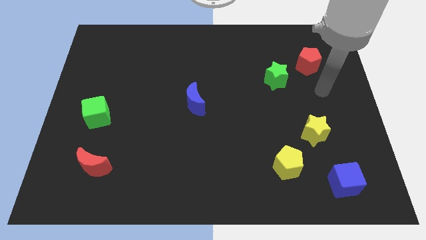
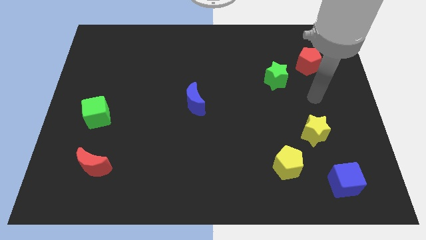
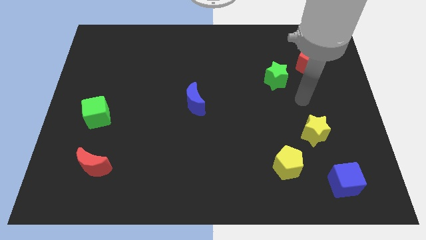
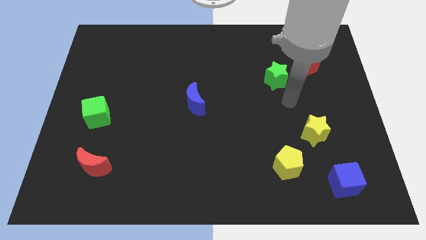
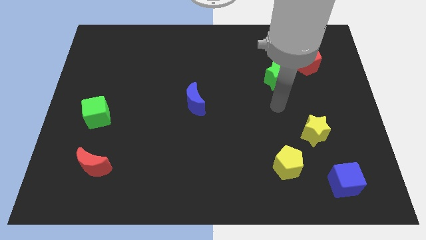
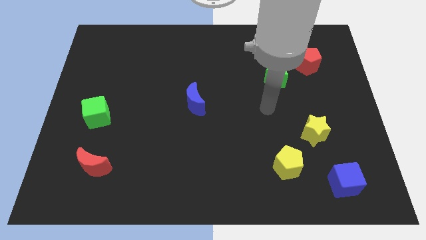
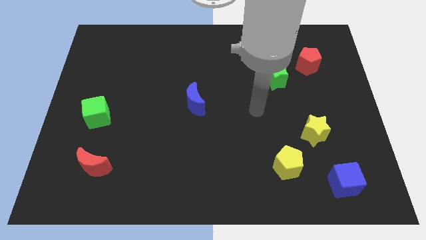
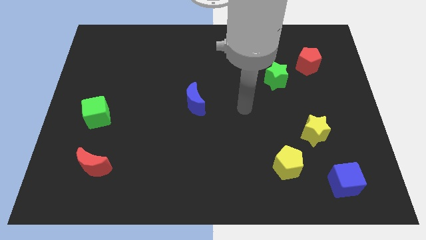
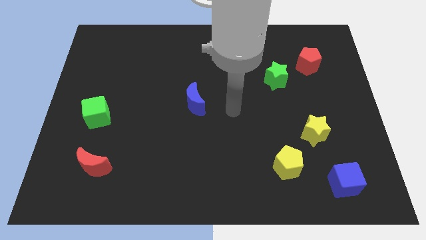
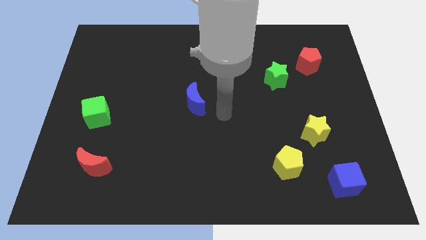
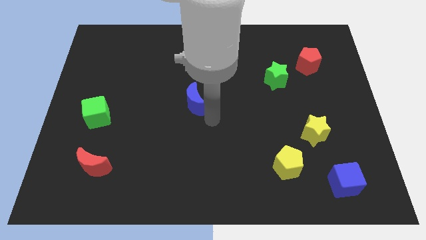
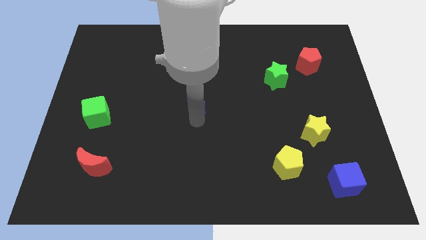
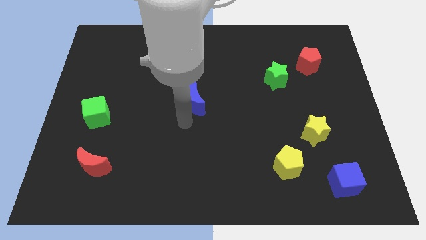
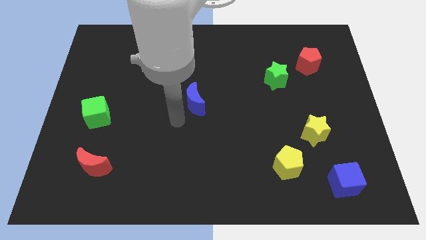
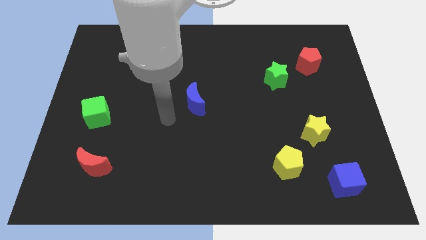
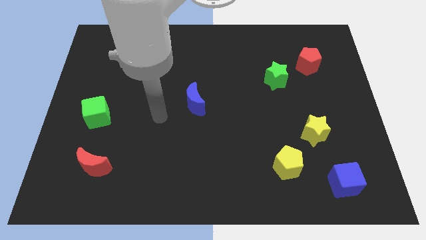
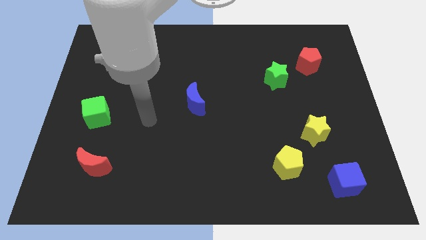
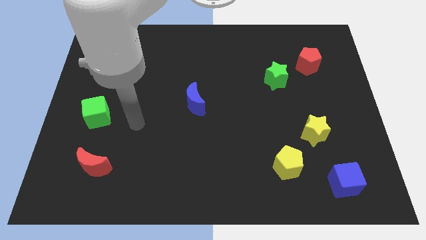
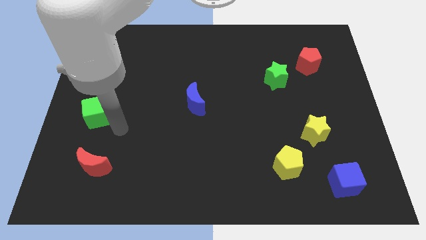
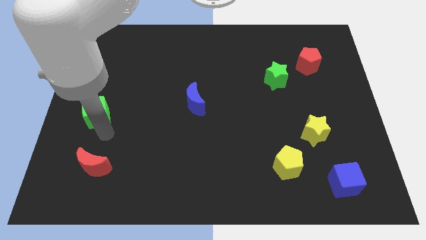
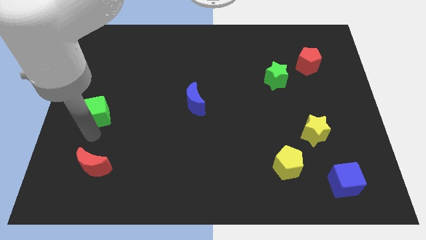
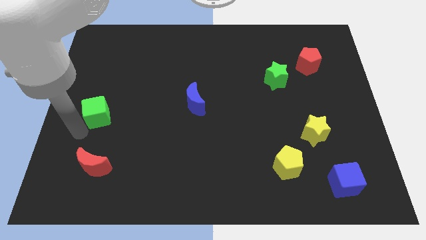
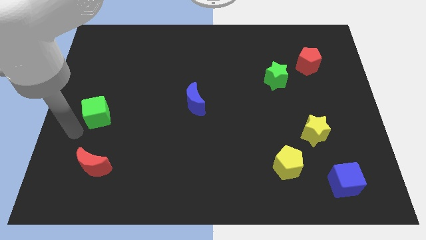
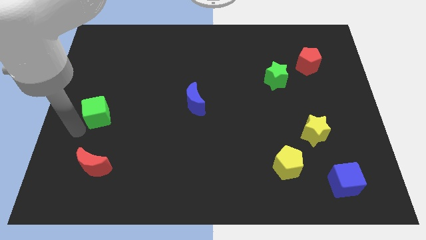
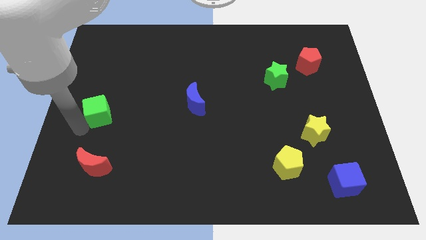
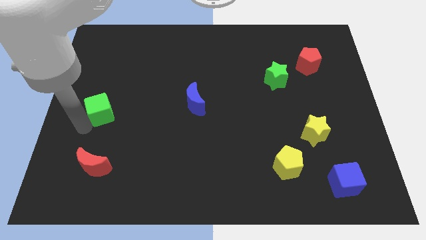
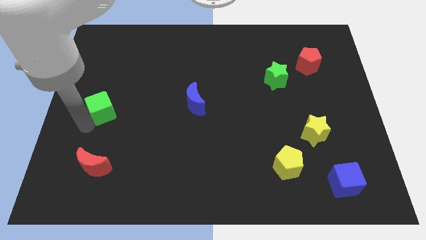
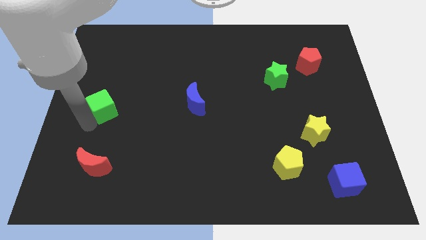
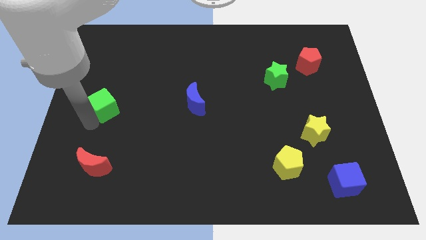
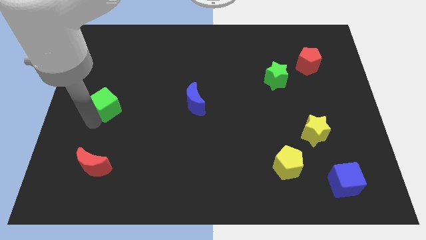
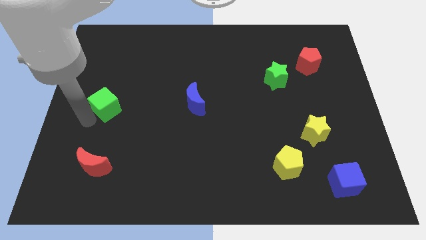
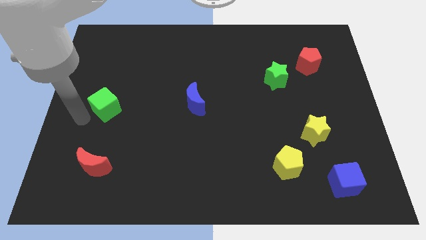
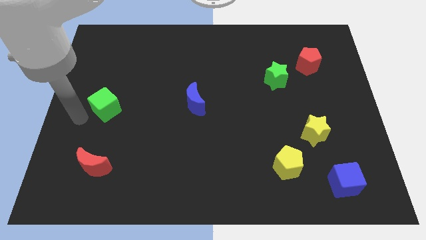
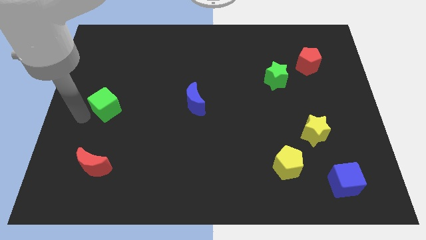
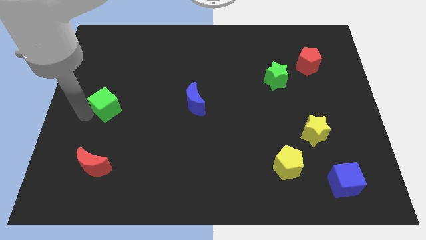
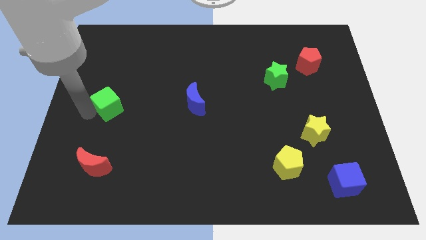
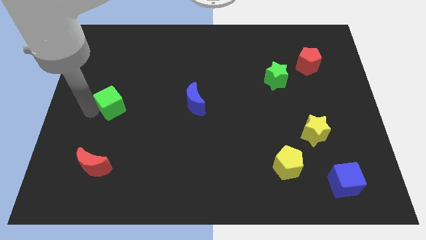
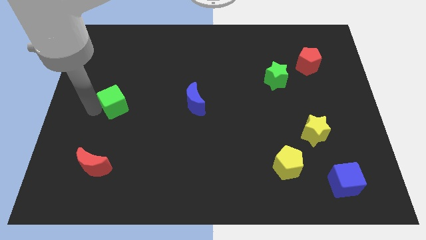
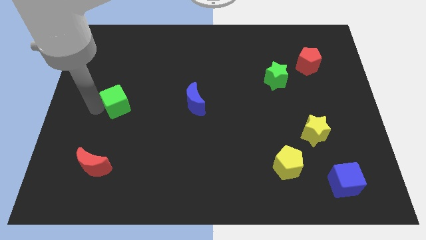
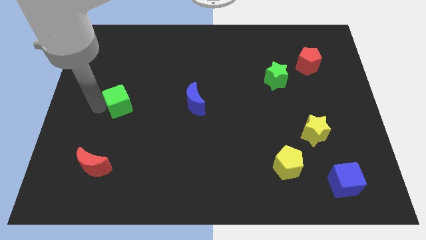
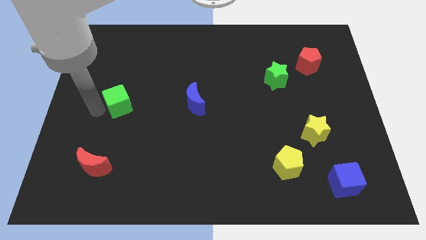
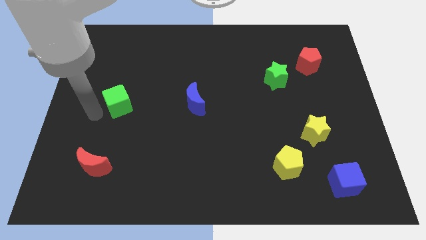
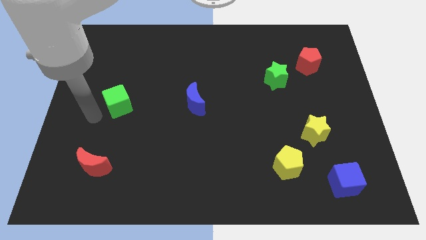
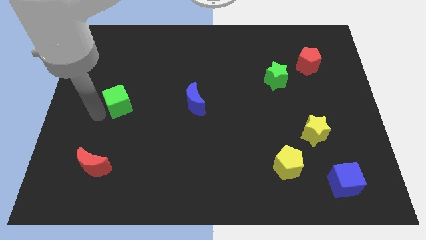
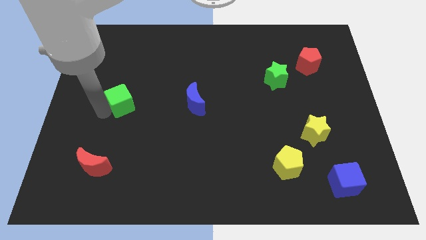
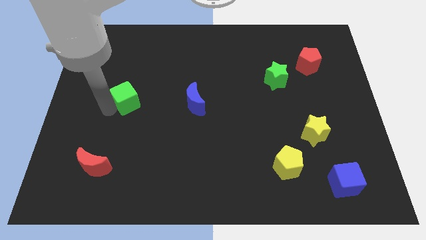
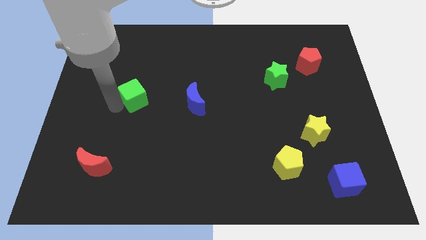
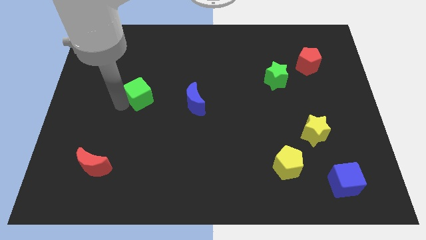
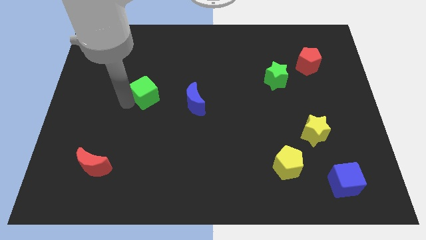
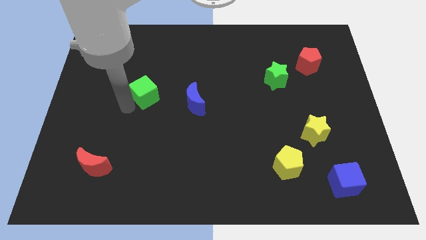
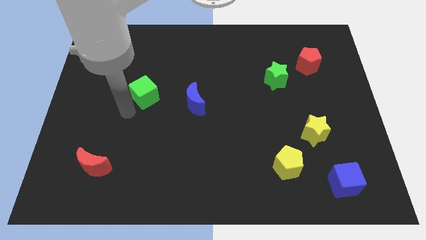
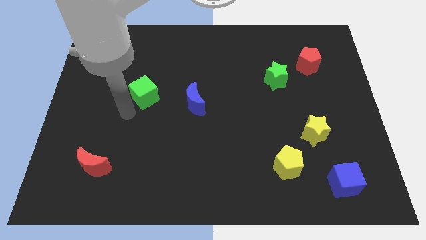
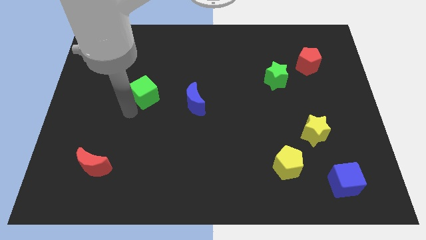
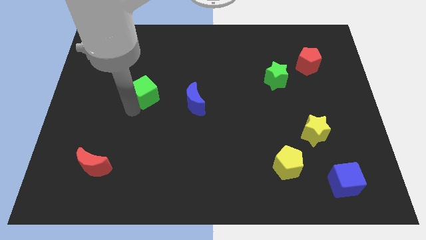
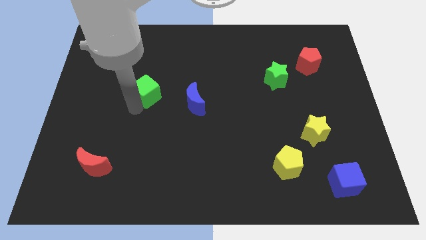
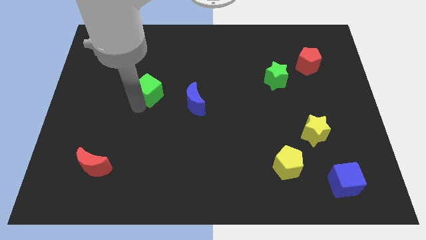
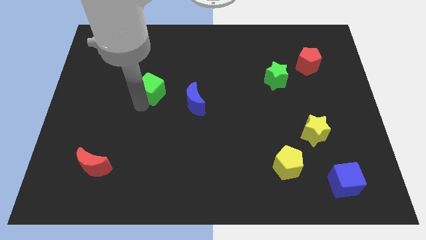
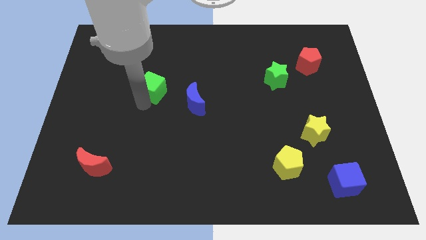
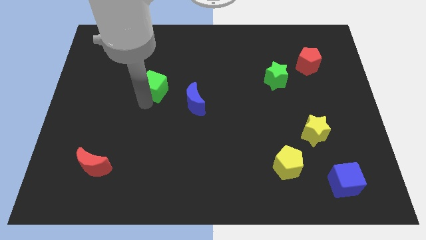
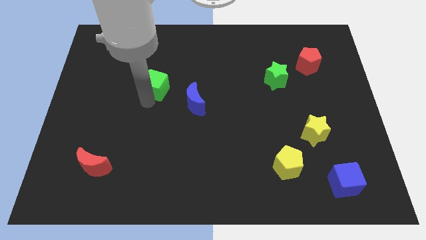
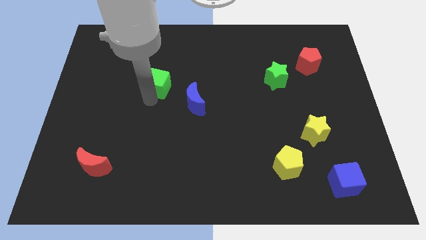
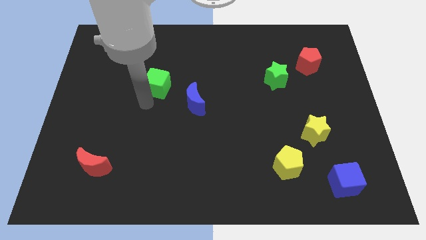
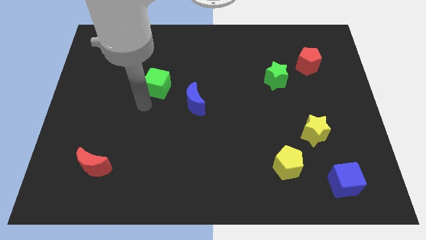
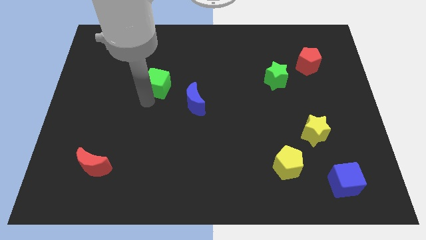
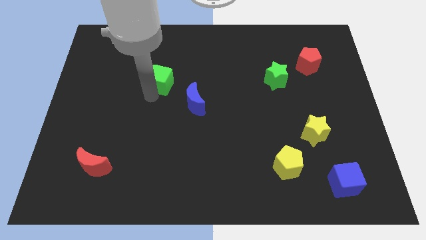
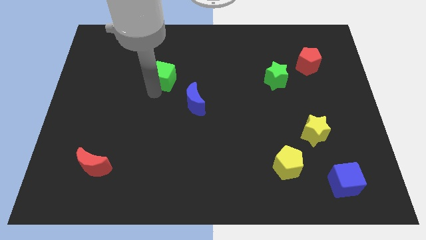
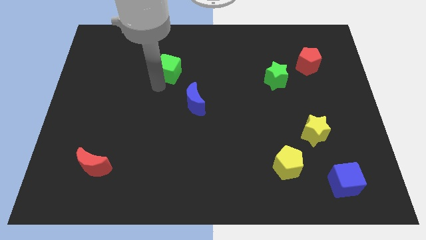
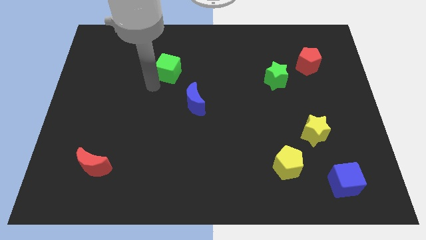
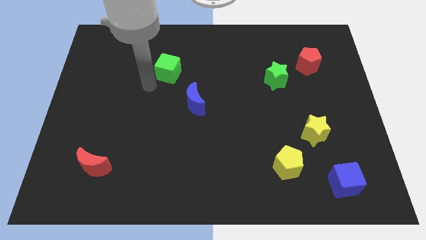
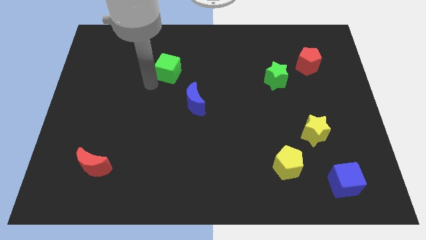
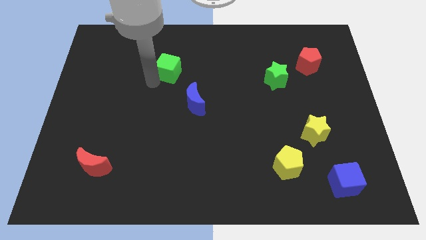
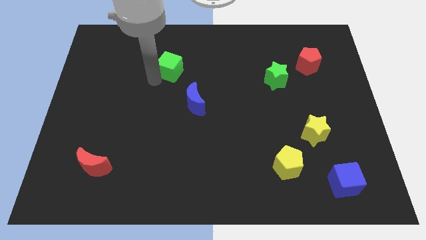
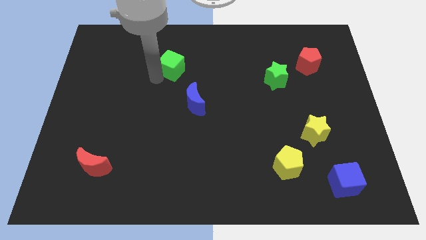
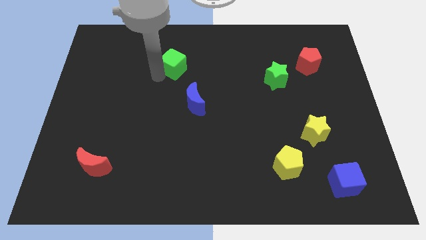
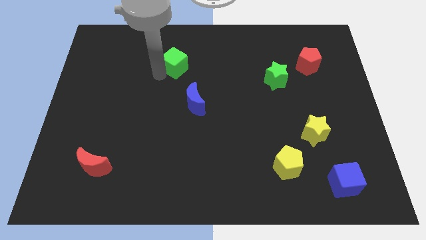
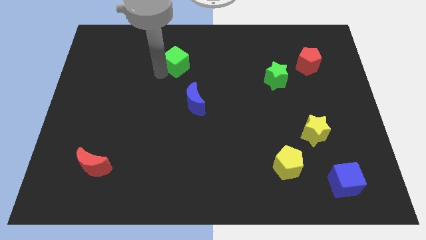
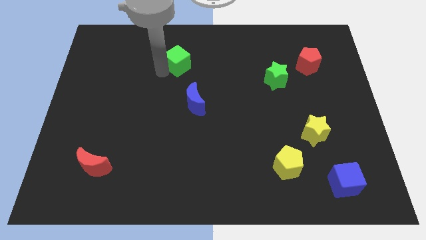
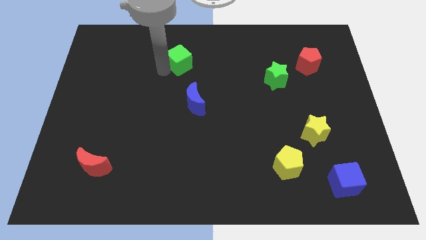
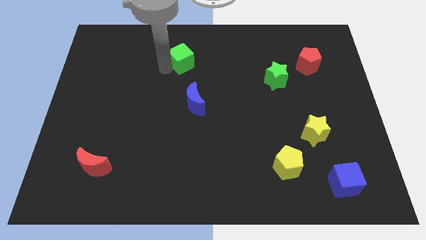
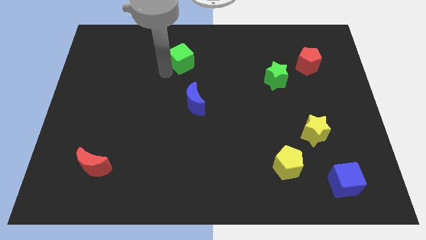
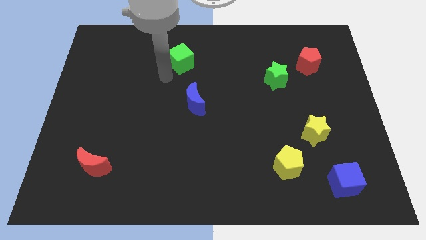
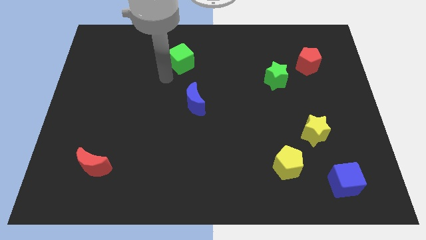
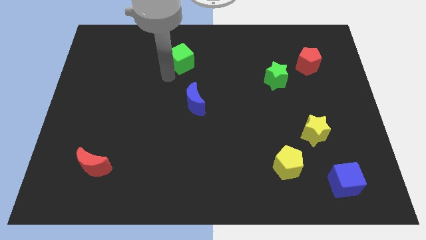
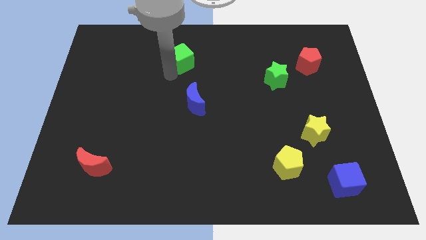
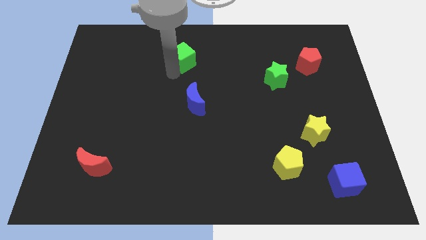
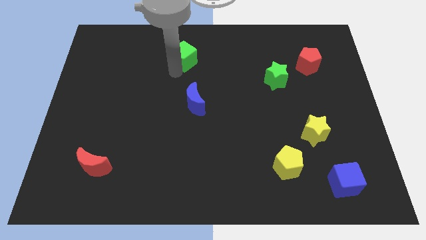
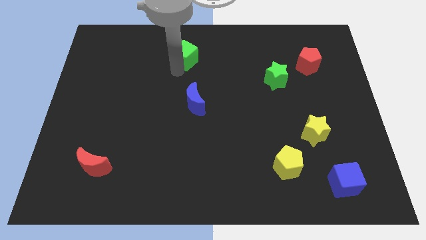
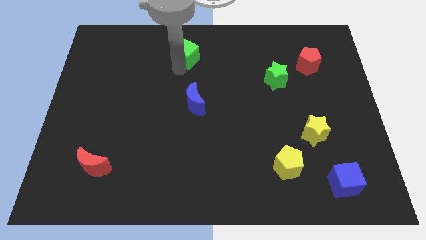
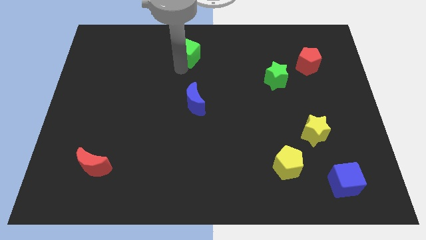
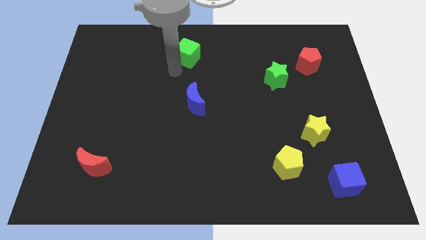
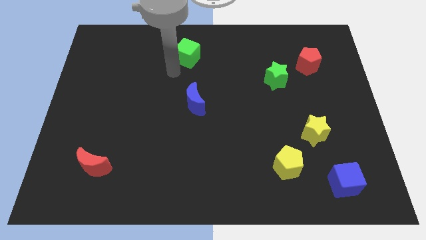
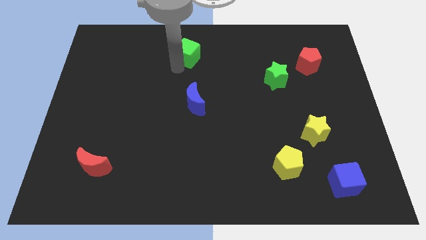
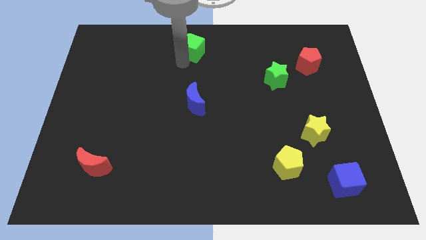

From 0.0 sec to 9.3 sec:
push the green cube to the top side
